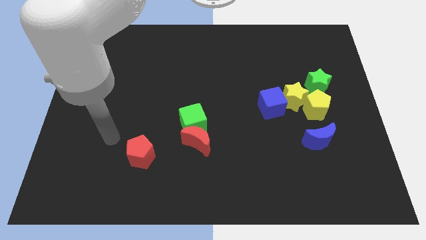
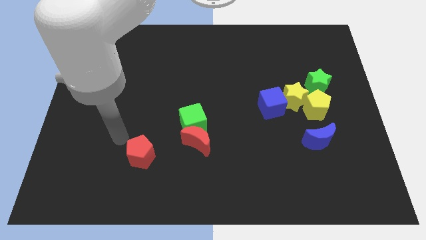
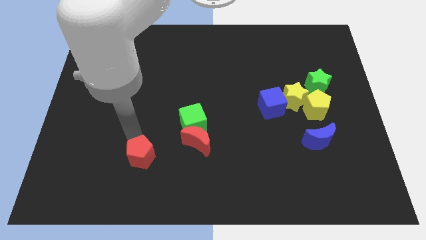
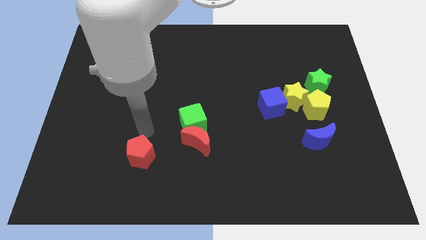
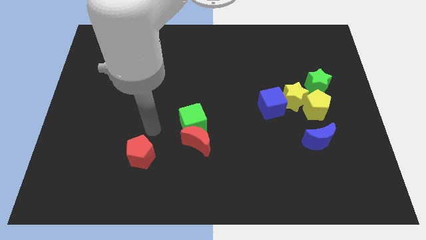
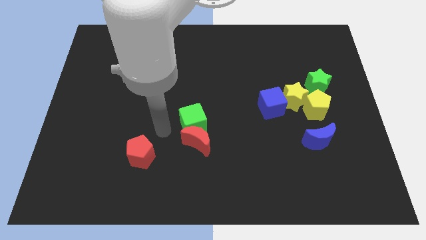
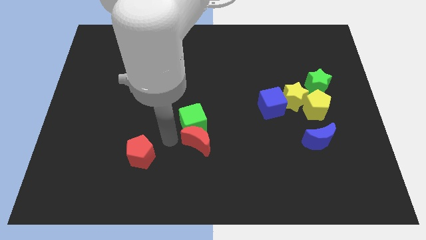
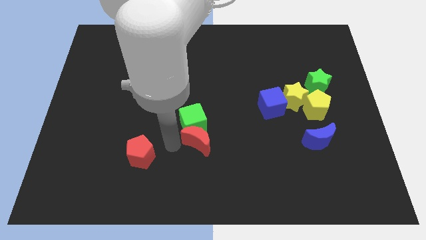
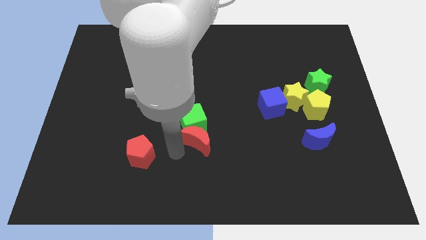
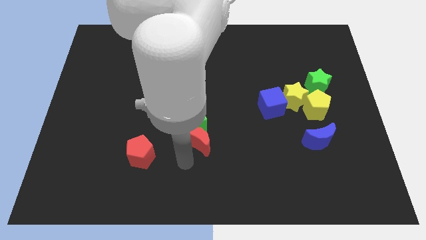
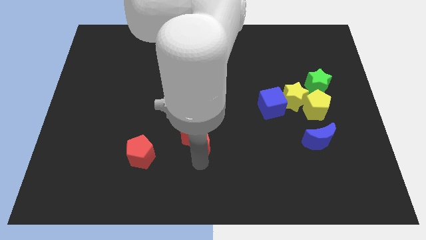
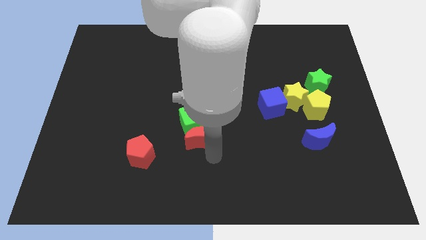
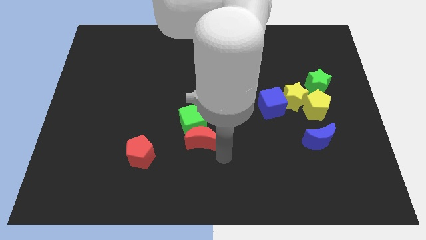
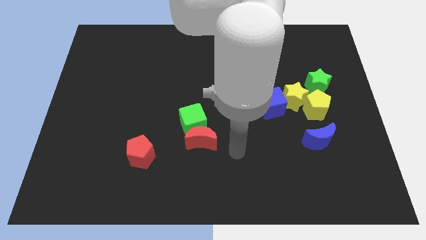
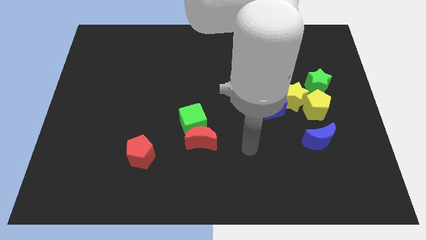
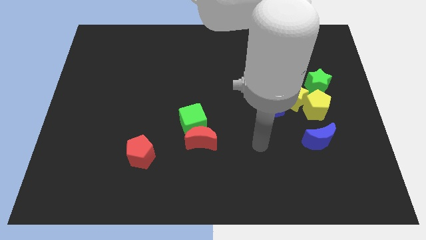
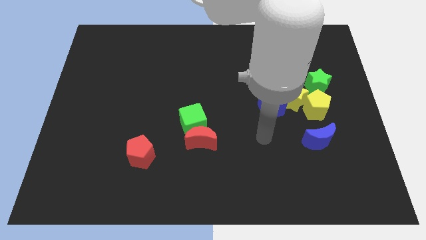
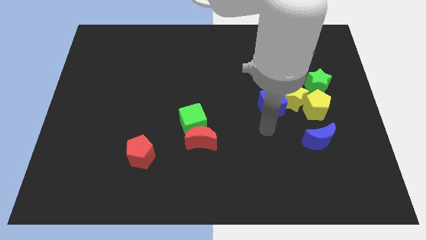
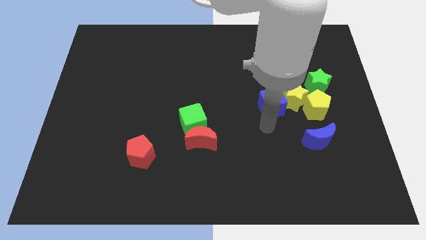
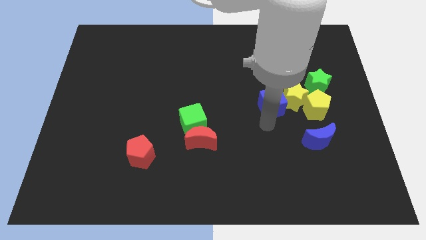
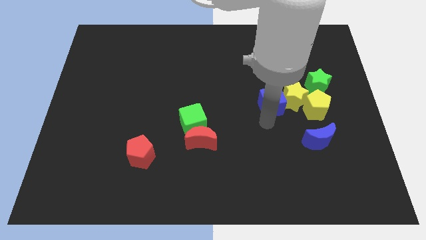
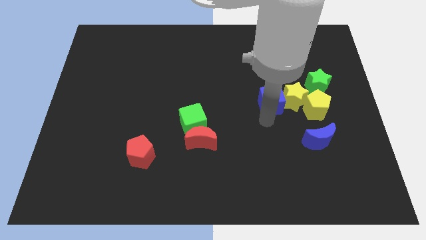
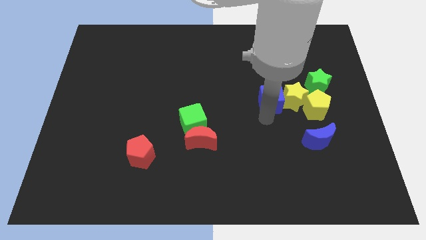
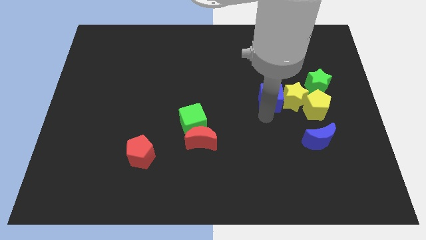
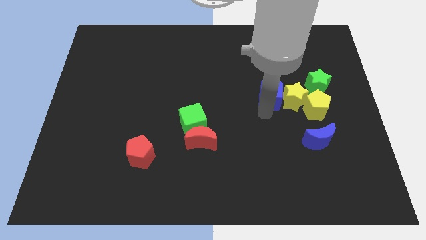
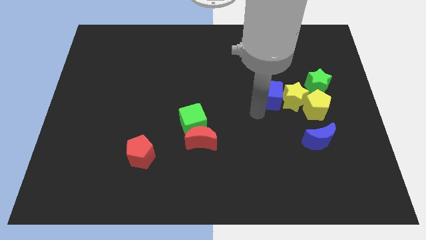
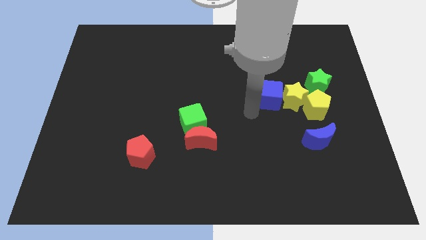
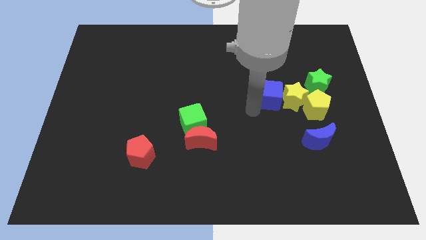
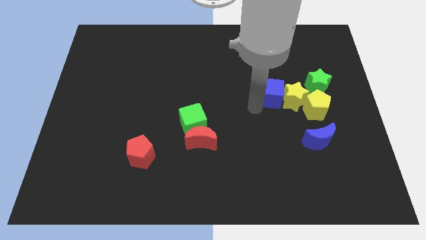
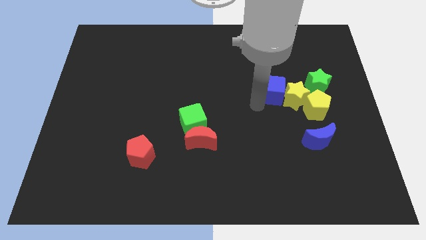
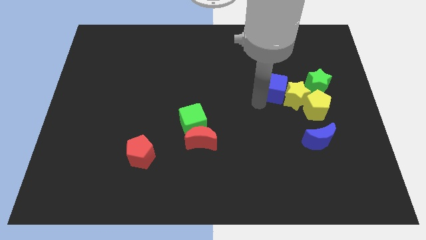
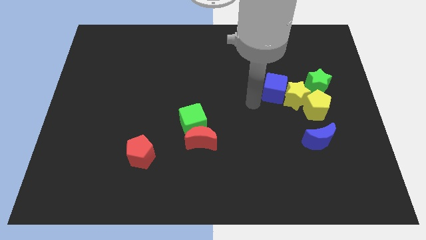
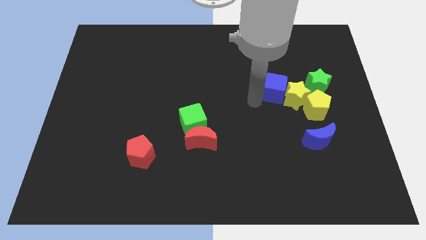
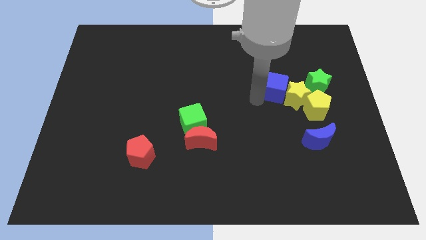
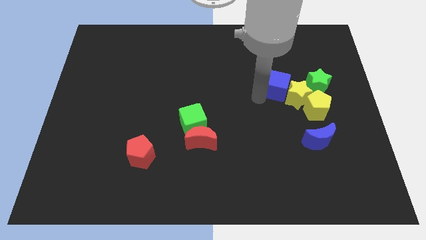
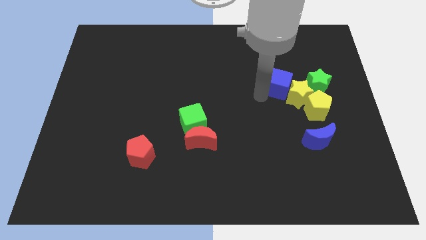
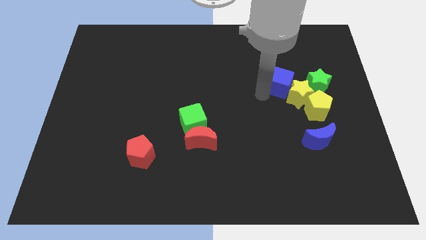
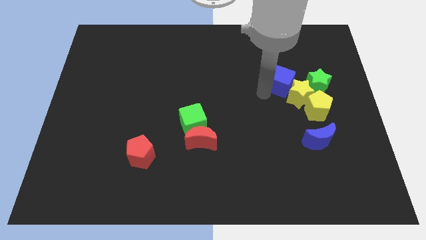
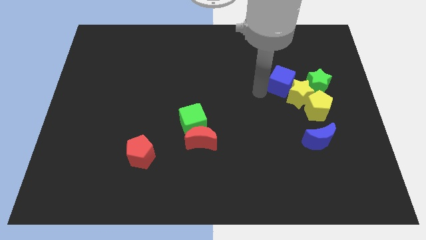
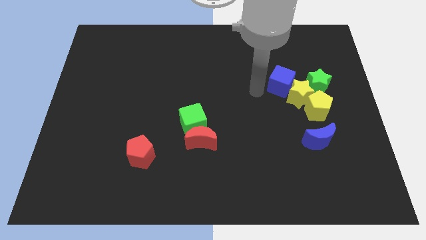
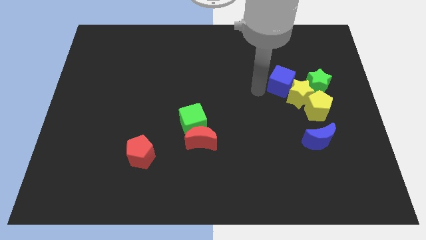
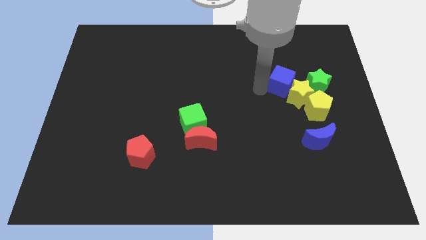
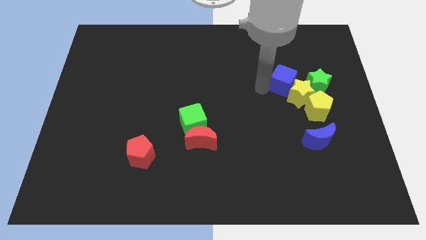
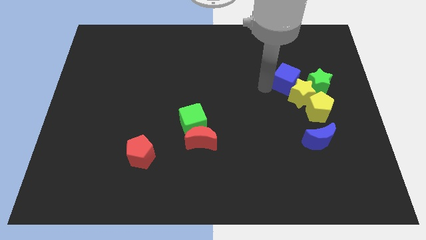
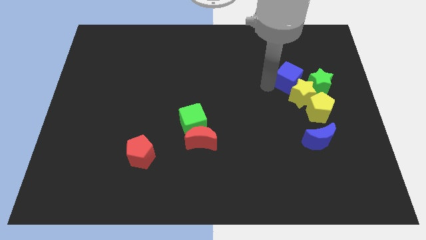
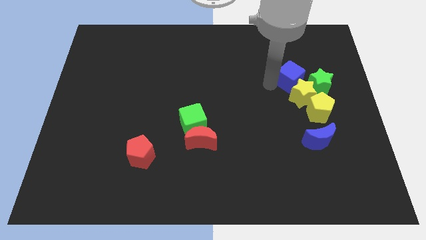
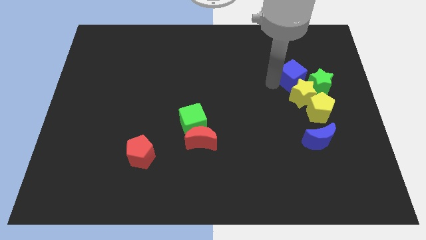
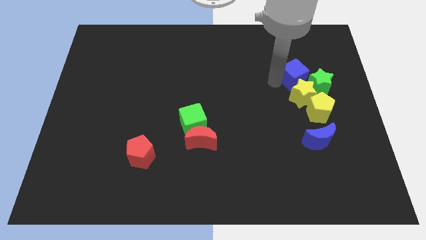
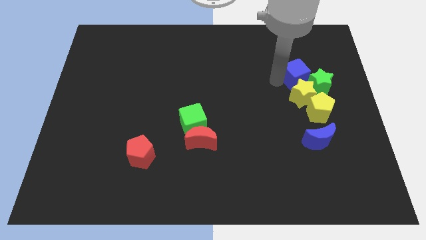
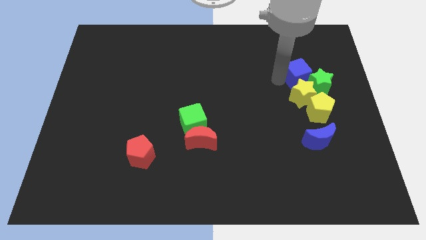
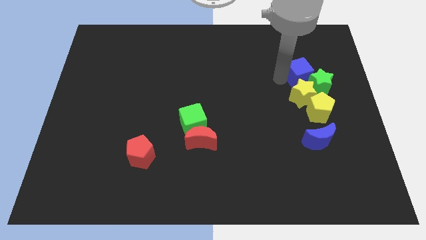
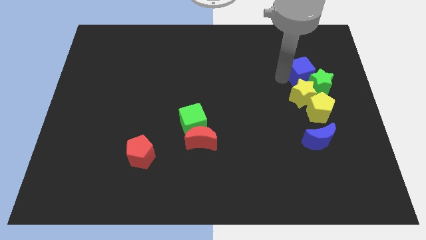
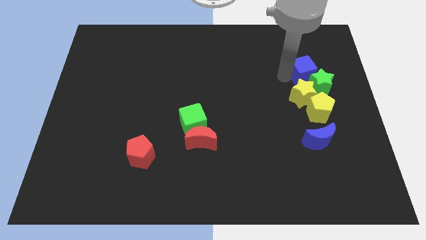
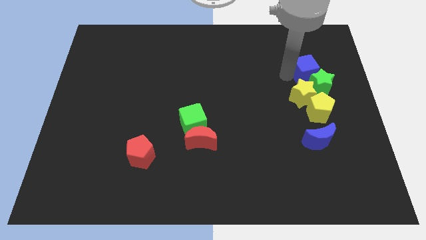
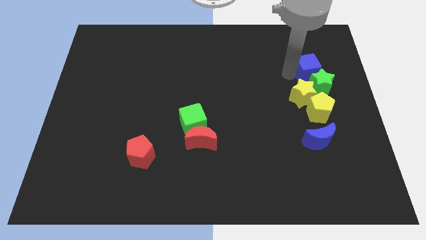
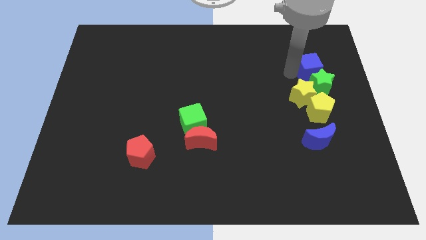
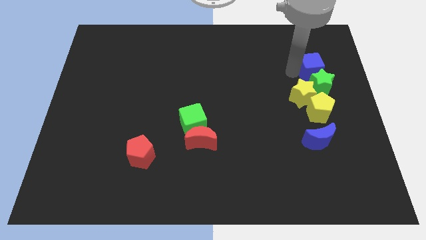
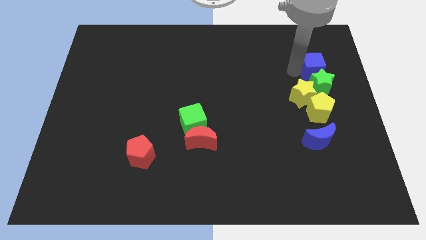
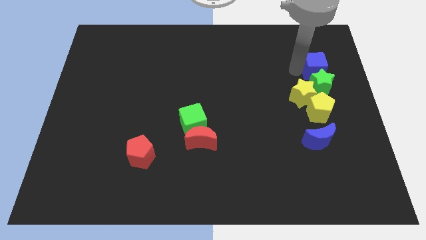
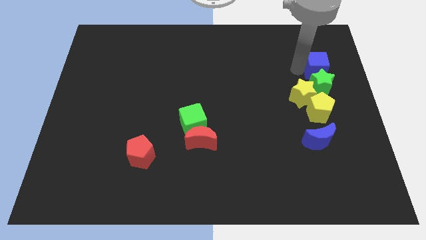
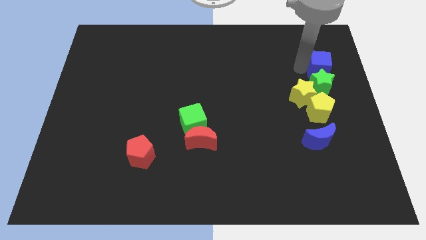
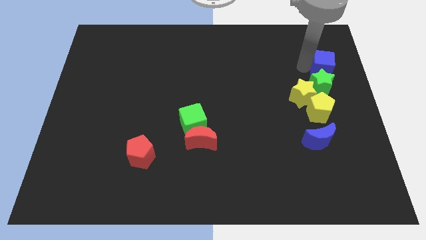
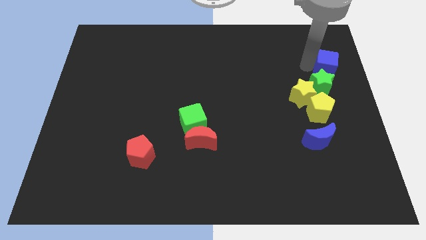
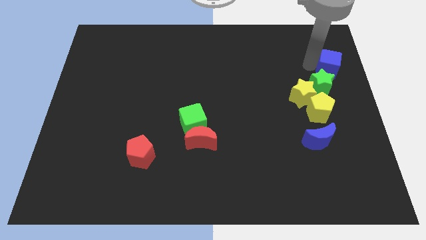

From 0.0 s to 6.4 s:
move the blue cube to the right side of the board
